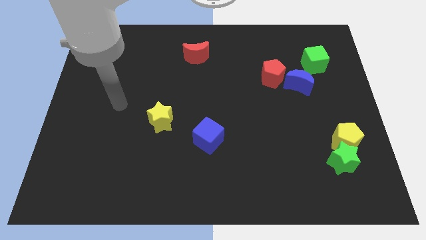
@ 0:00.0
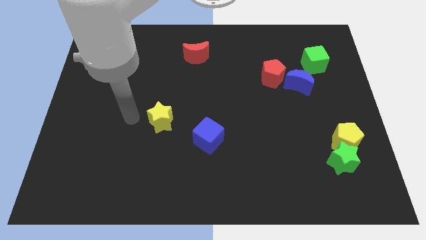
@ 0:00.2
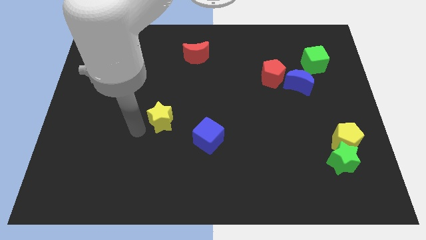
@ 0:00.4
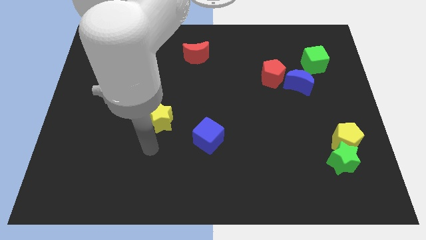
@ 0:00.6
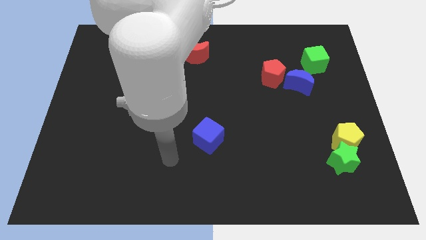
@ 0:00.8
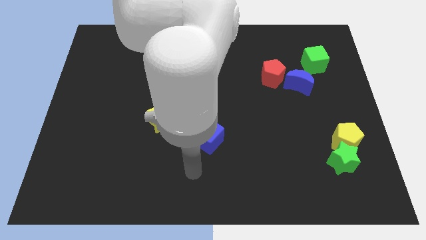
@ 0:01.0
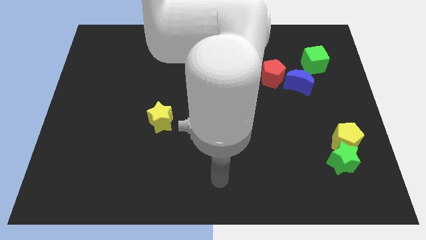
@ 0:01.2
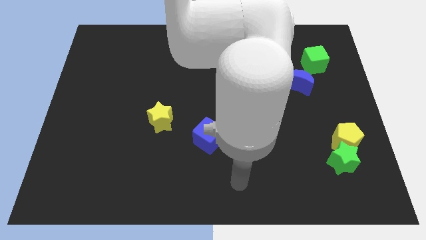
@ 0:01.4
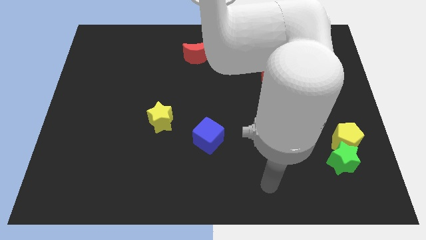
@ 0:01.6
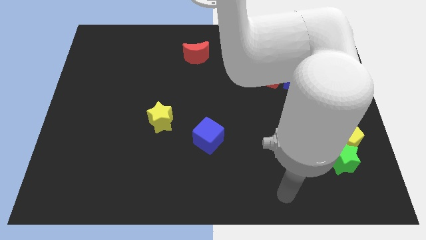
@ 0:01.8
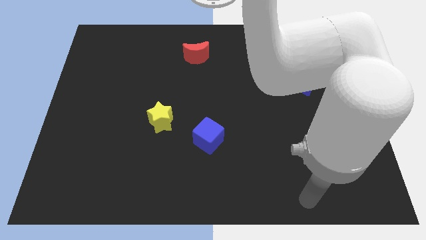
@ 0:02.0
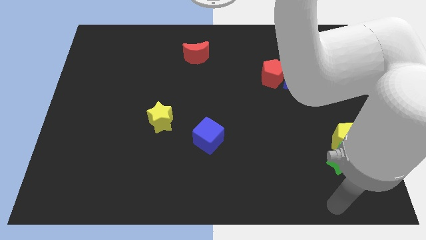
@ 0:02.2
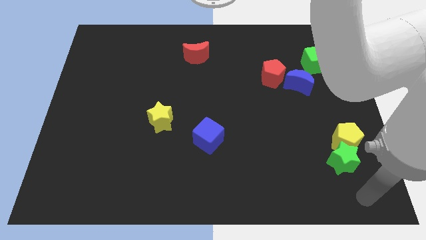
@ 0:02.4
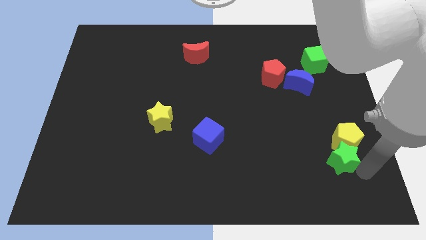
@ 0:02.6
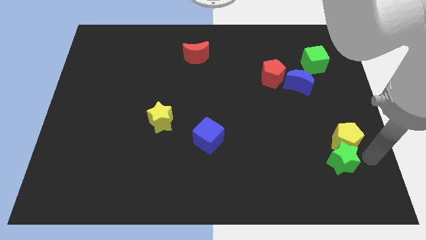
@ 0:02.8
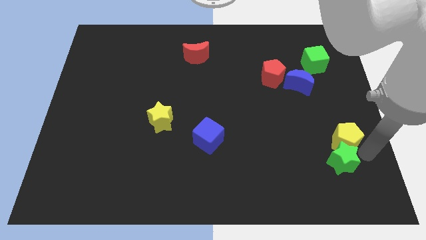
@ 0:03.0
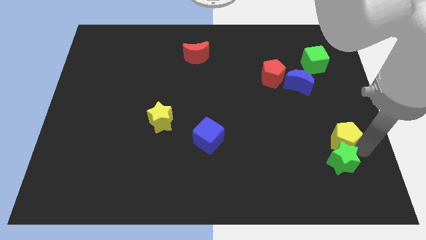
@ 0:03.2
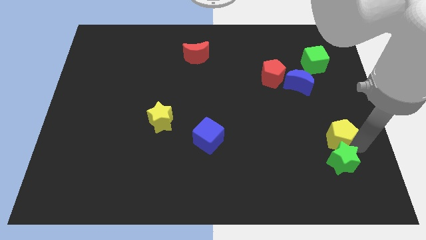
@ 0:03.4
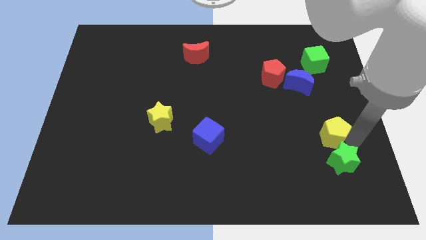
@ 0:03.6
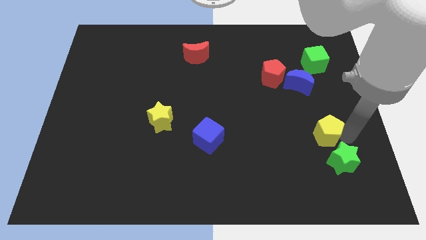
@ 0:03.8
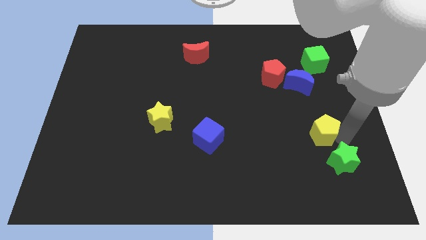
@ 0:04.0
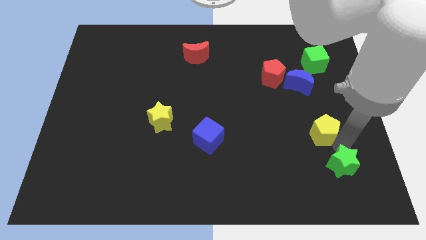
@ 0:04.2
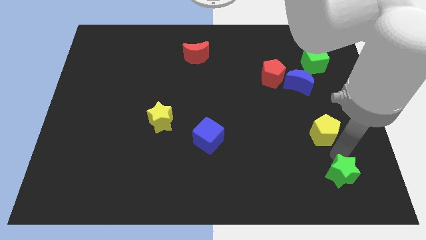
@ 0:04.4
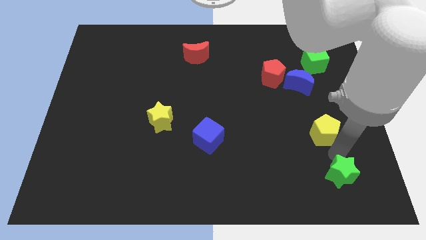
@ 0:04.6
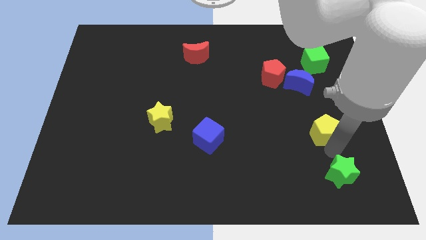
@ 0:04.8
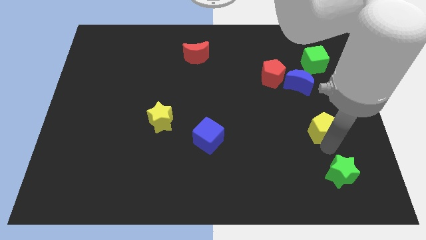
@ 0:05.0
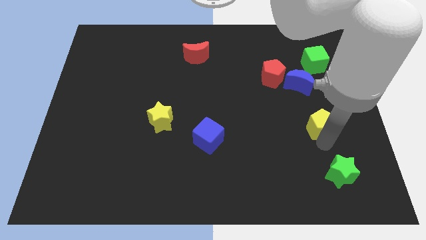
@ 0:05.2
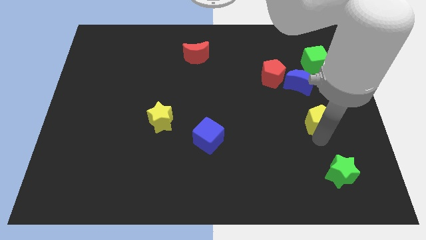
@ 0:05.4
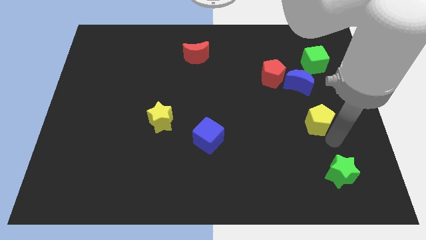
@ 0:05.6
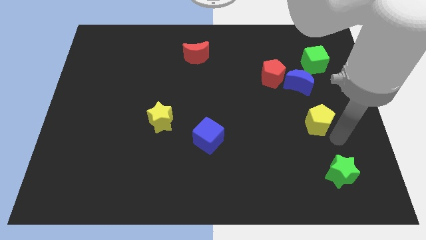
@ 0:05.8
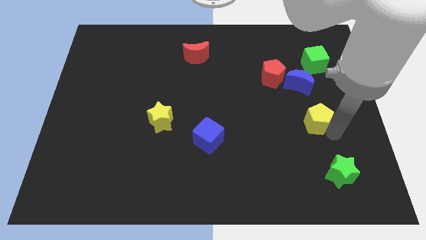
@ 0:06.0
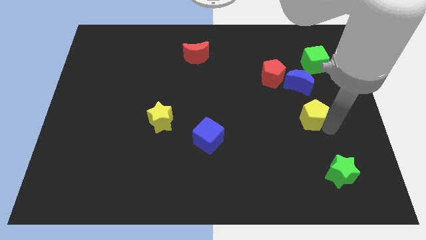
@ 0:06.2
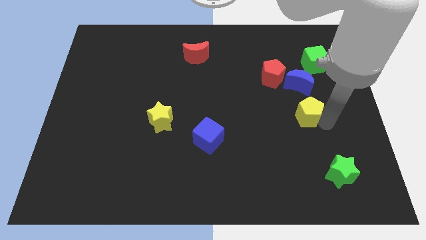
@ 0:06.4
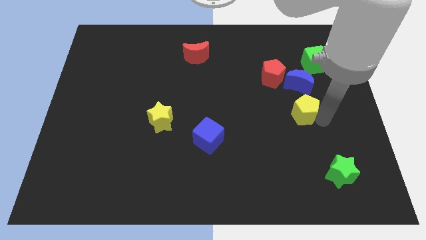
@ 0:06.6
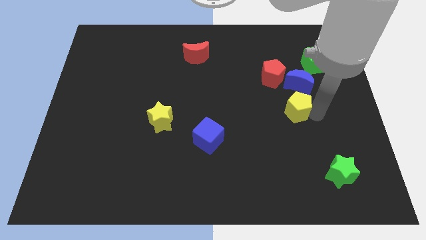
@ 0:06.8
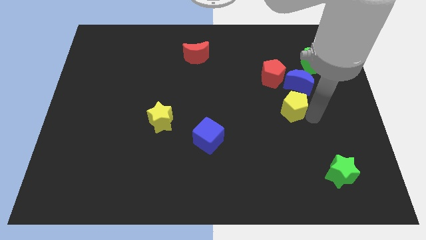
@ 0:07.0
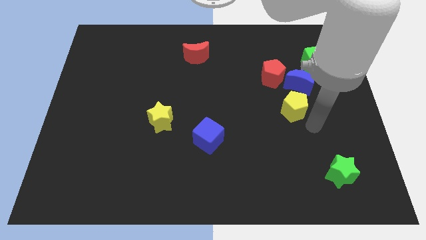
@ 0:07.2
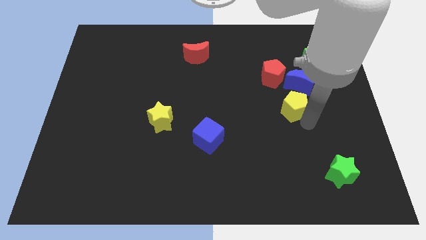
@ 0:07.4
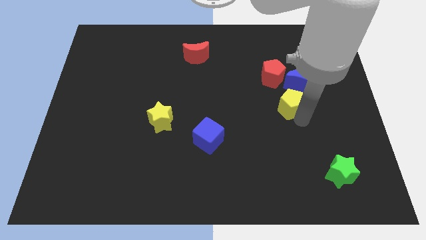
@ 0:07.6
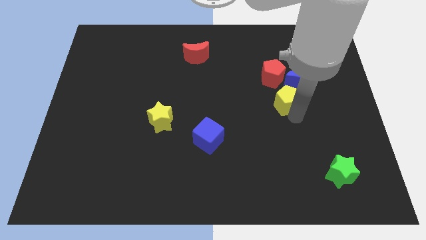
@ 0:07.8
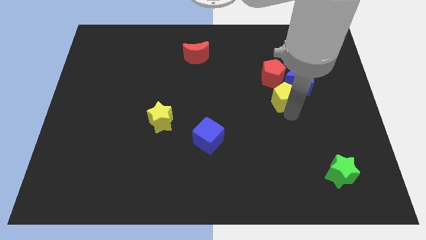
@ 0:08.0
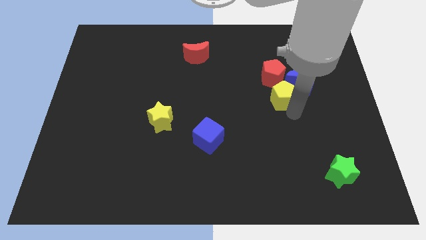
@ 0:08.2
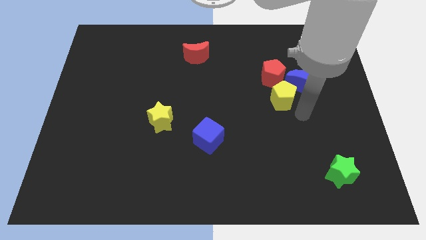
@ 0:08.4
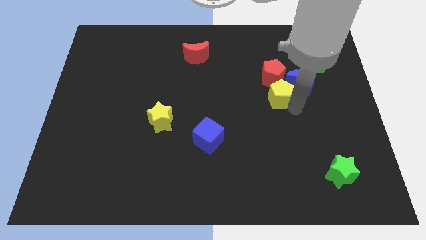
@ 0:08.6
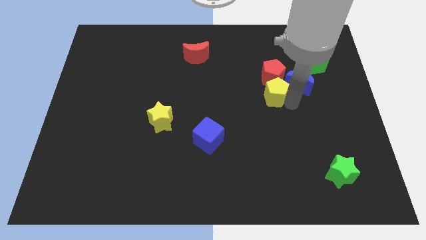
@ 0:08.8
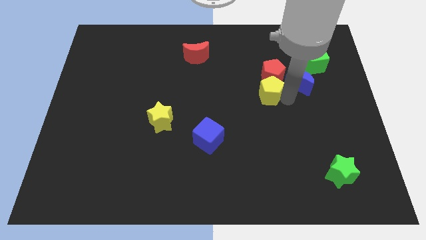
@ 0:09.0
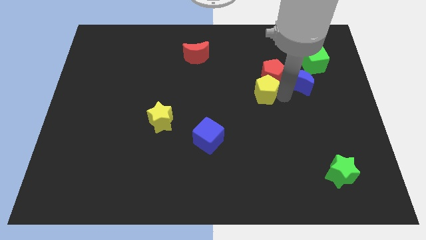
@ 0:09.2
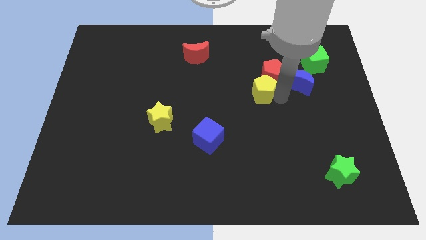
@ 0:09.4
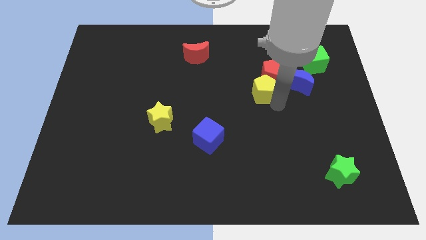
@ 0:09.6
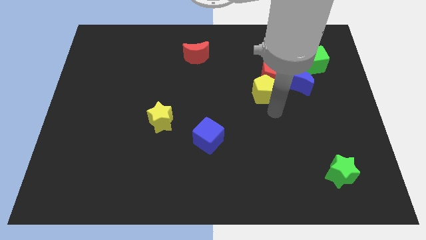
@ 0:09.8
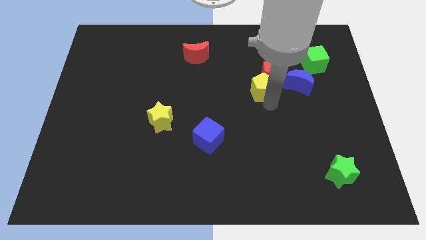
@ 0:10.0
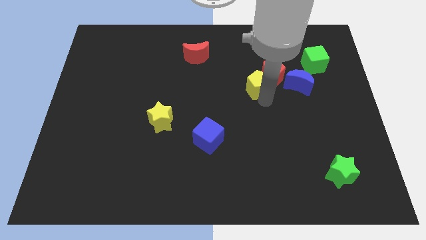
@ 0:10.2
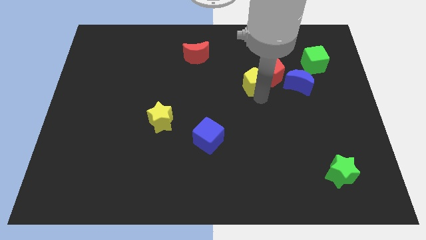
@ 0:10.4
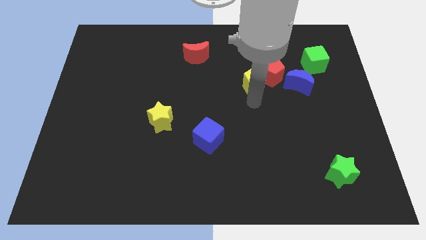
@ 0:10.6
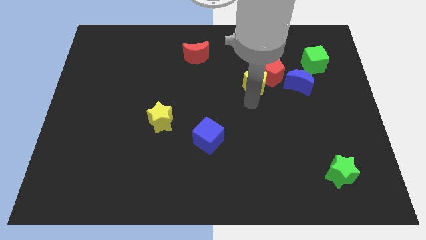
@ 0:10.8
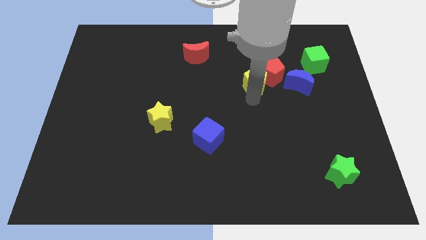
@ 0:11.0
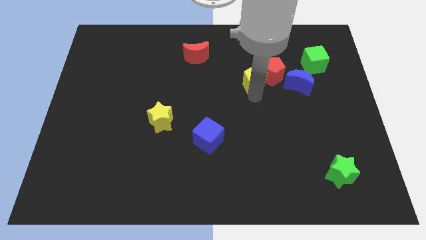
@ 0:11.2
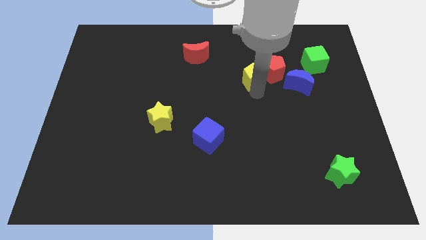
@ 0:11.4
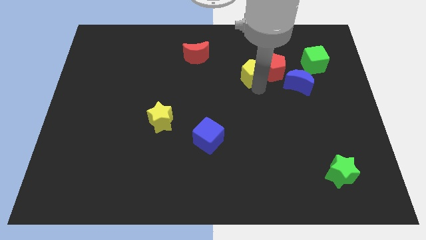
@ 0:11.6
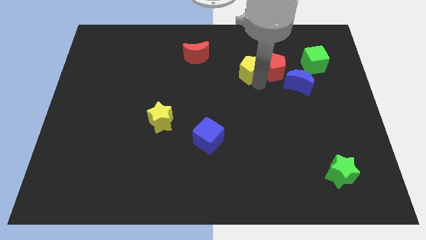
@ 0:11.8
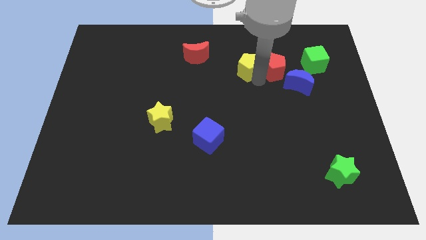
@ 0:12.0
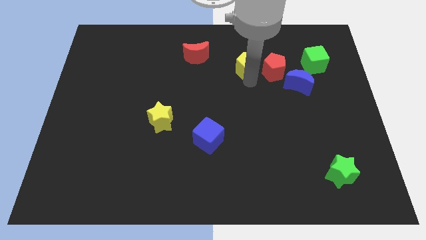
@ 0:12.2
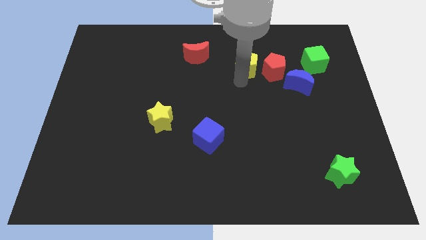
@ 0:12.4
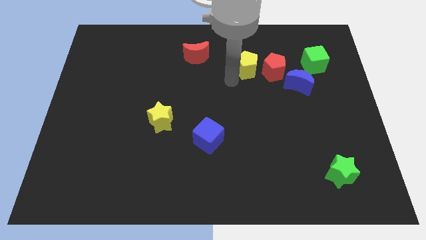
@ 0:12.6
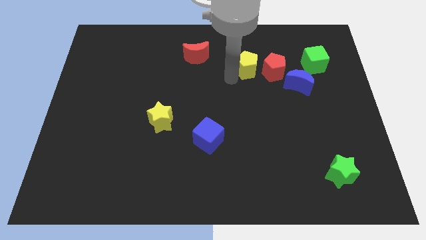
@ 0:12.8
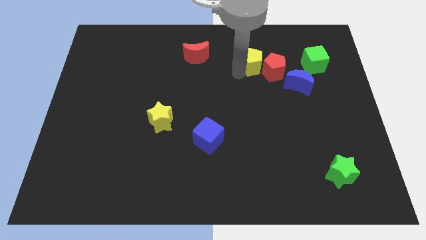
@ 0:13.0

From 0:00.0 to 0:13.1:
move the yellow pentagon to the left of the green cube

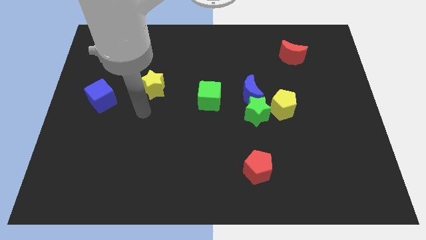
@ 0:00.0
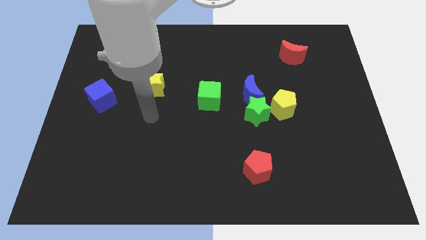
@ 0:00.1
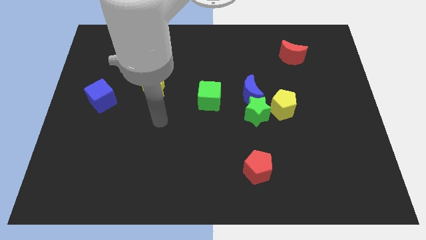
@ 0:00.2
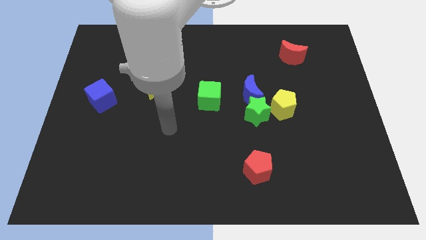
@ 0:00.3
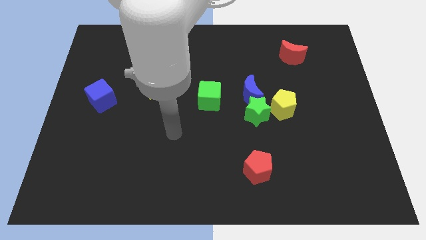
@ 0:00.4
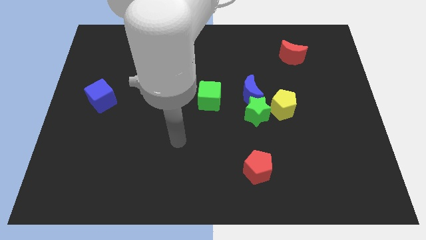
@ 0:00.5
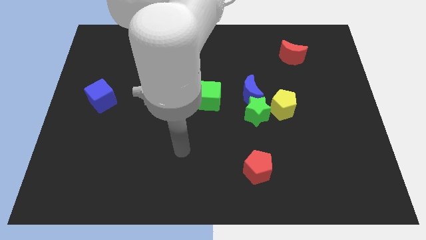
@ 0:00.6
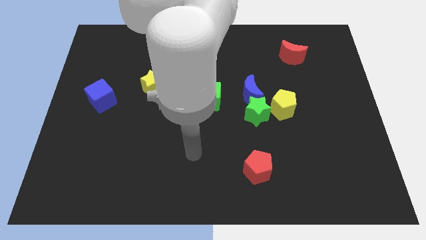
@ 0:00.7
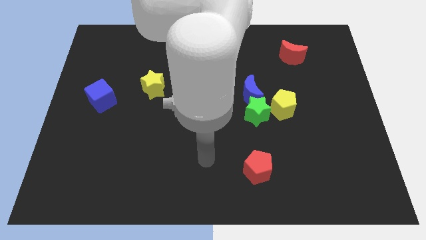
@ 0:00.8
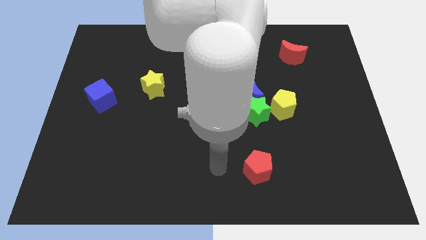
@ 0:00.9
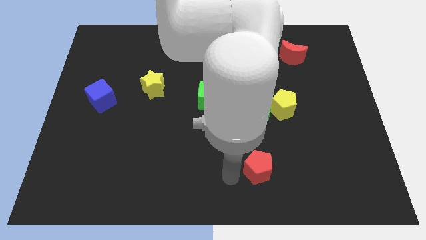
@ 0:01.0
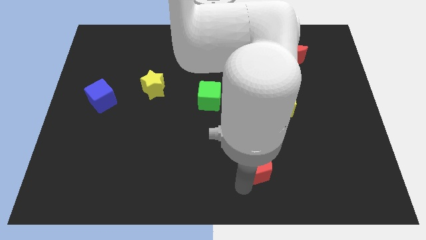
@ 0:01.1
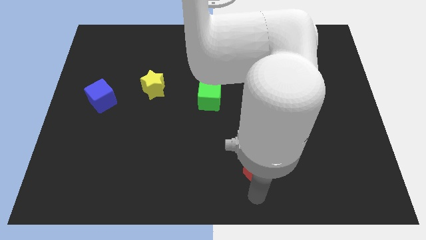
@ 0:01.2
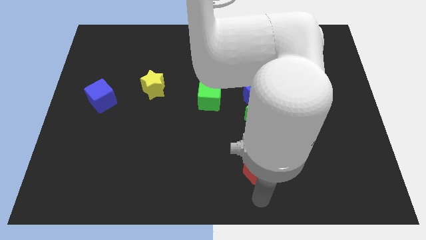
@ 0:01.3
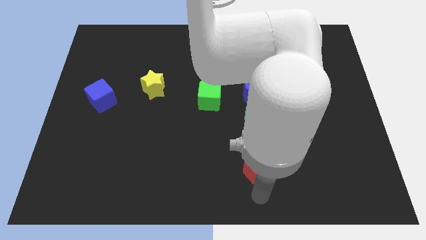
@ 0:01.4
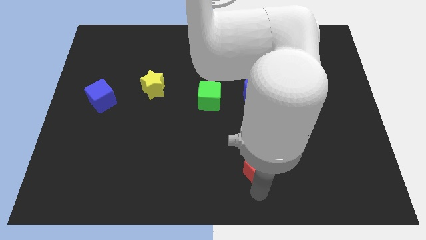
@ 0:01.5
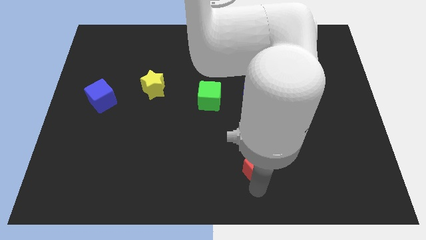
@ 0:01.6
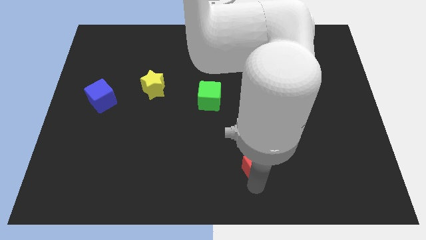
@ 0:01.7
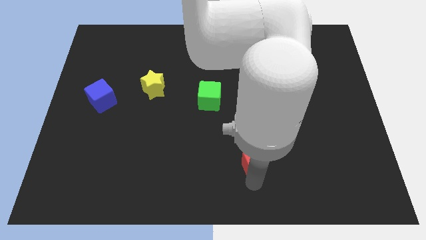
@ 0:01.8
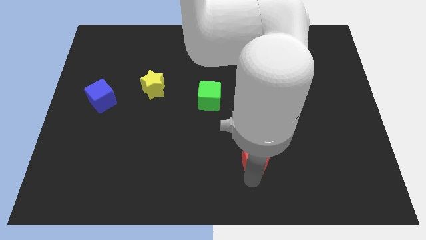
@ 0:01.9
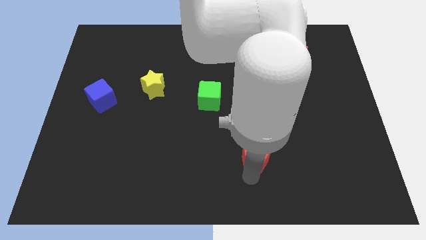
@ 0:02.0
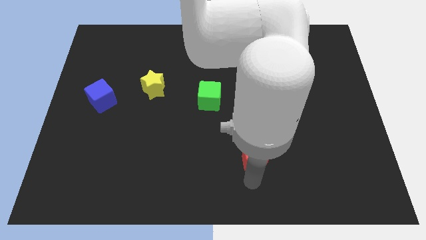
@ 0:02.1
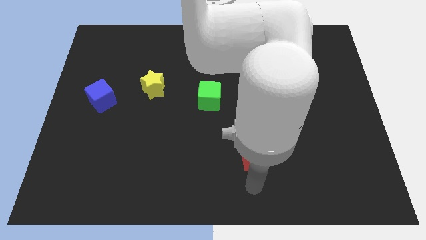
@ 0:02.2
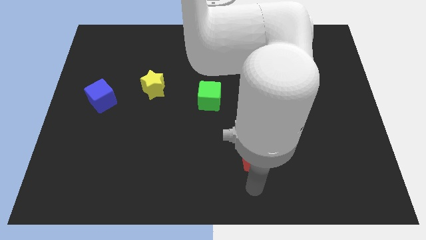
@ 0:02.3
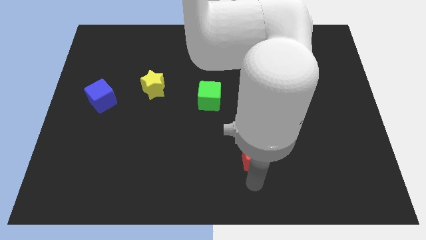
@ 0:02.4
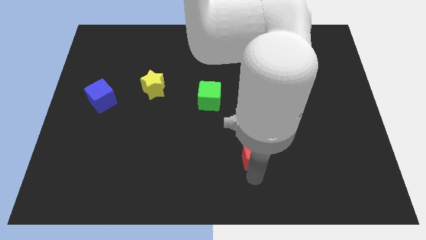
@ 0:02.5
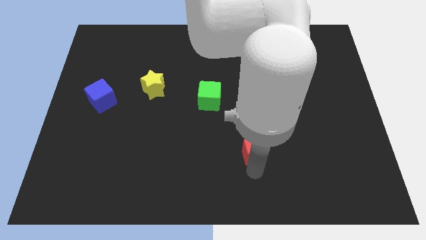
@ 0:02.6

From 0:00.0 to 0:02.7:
move the red pentagon to the bottom of the blue moon
